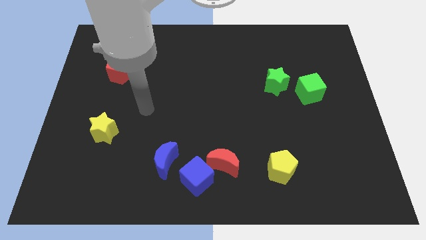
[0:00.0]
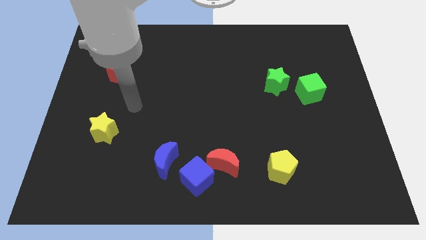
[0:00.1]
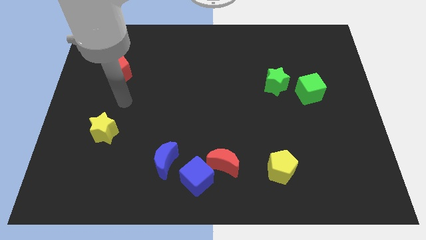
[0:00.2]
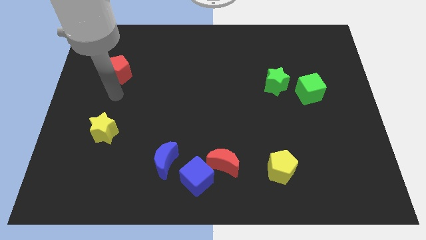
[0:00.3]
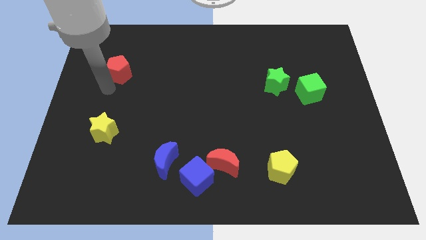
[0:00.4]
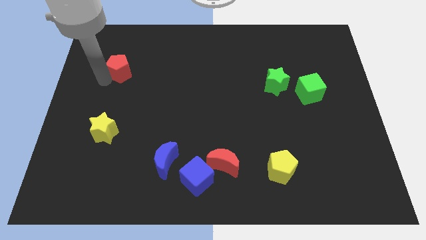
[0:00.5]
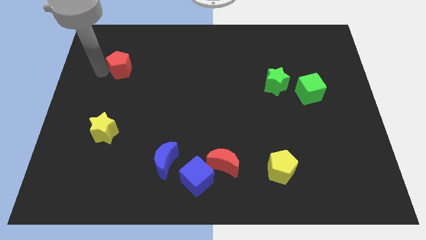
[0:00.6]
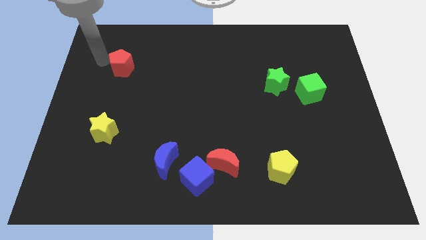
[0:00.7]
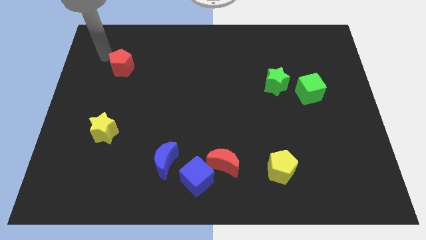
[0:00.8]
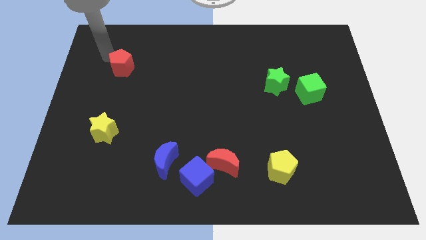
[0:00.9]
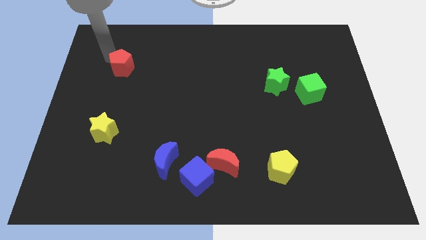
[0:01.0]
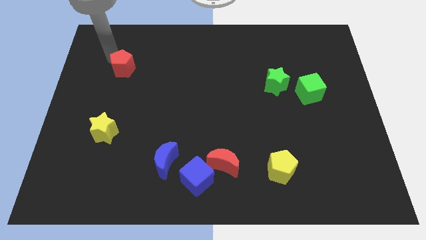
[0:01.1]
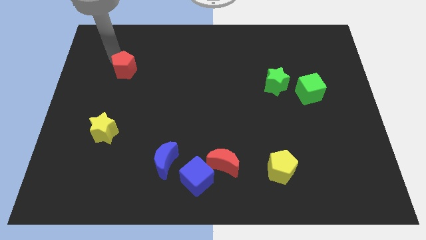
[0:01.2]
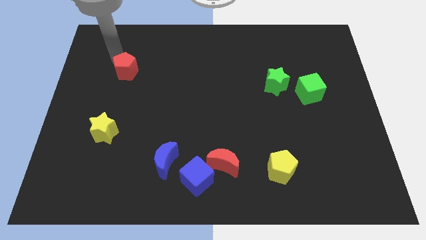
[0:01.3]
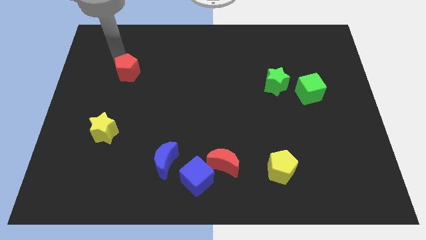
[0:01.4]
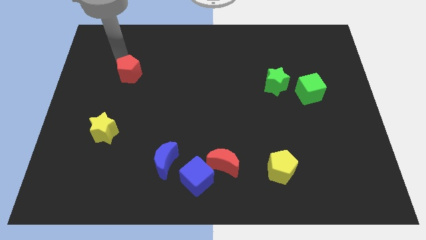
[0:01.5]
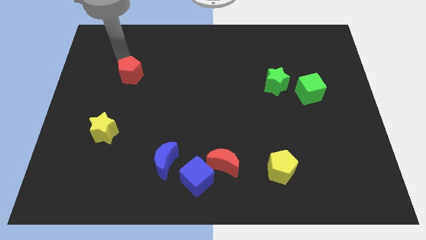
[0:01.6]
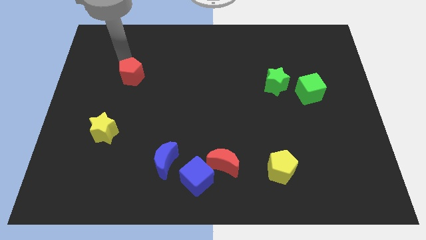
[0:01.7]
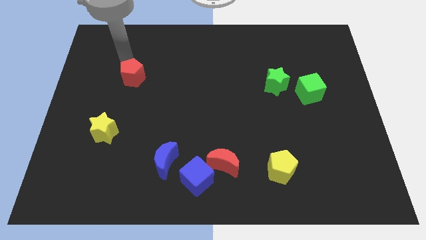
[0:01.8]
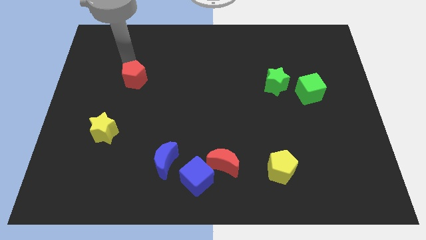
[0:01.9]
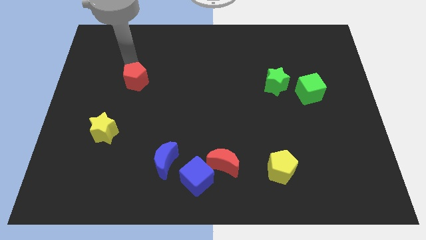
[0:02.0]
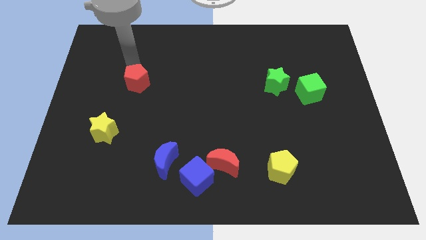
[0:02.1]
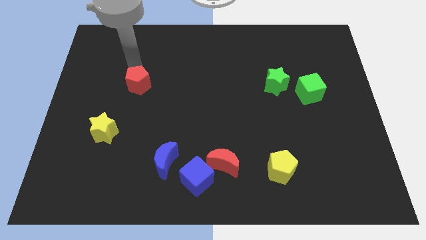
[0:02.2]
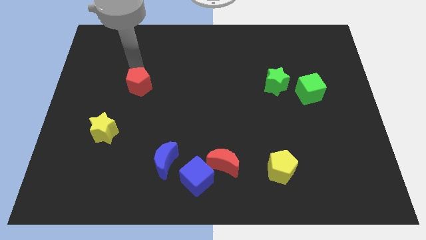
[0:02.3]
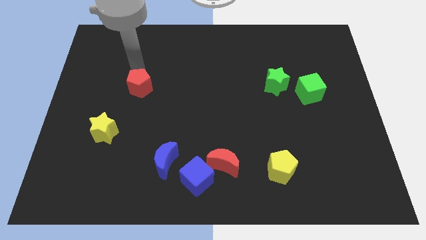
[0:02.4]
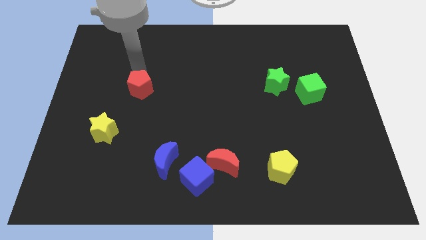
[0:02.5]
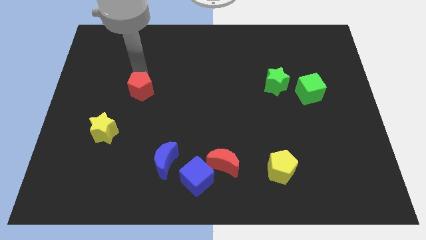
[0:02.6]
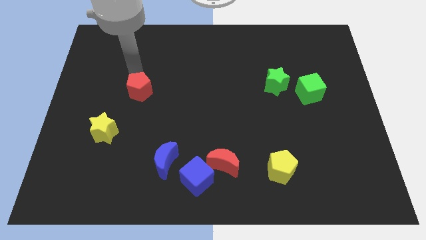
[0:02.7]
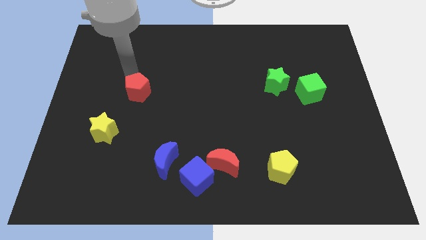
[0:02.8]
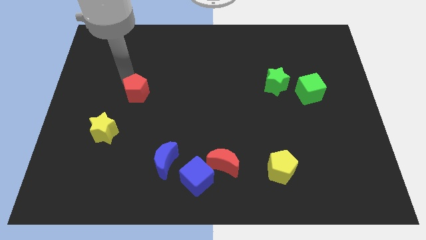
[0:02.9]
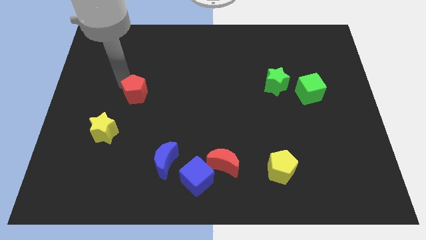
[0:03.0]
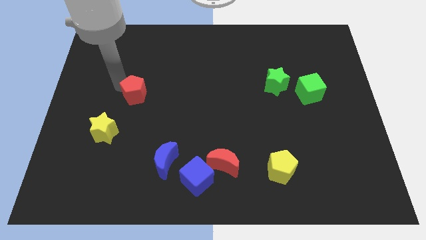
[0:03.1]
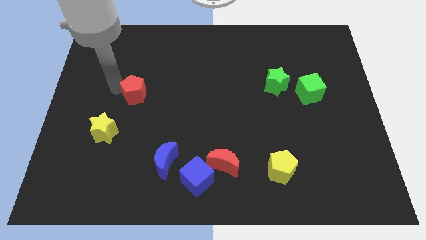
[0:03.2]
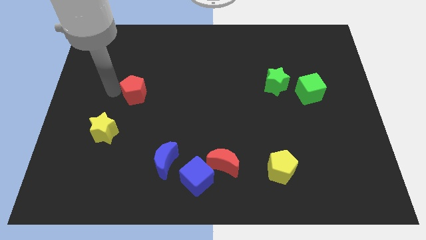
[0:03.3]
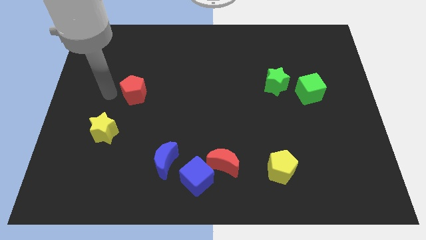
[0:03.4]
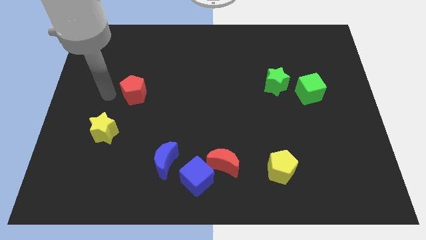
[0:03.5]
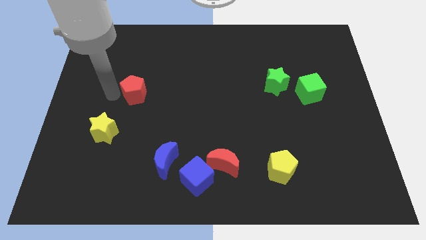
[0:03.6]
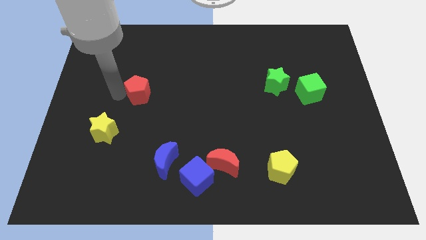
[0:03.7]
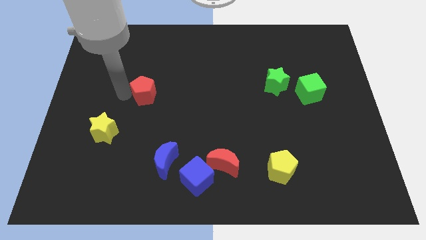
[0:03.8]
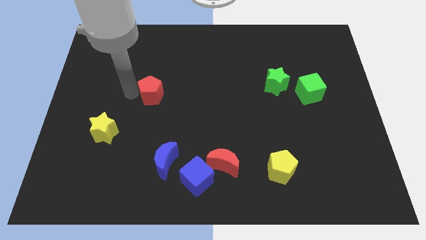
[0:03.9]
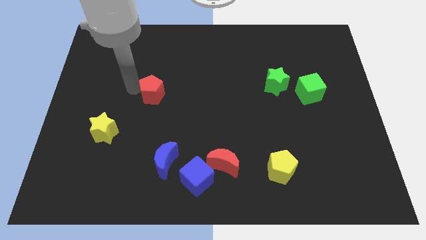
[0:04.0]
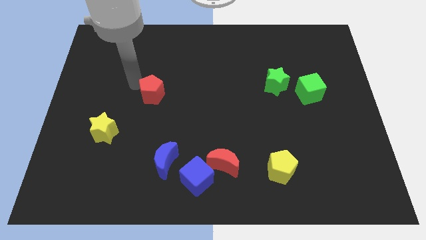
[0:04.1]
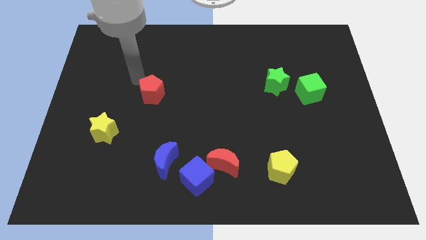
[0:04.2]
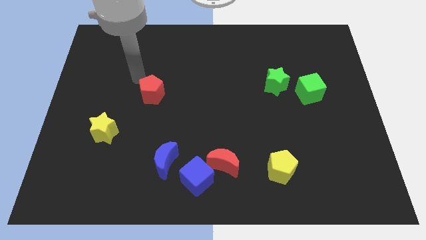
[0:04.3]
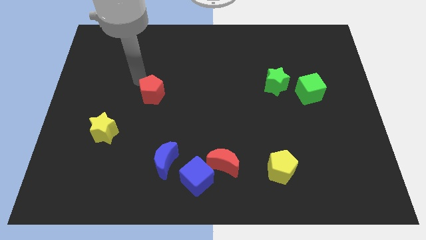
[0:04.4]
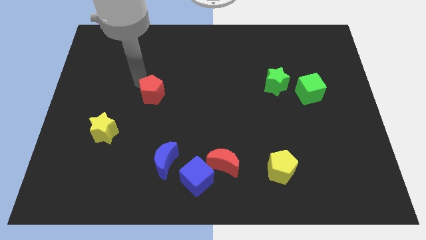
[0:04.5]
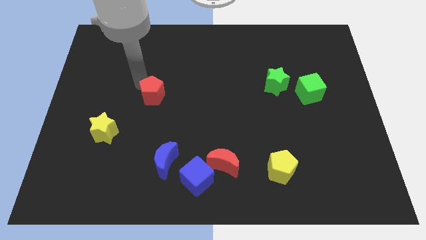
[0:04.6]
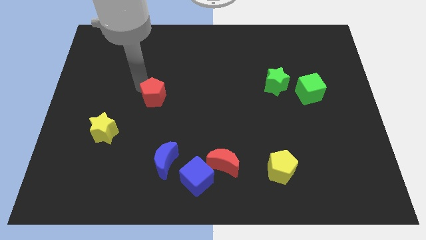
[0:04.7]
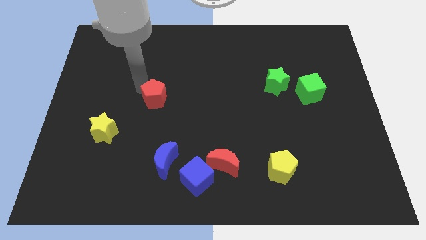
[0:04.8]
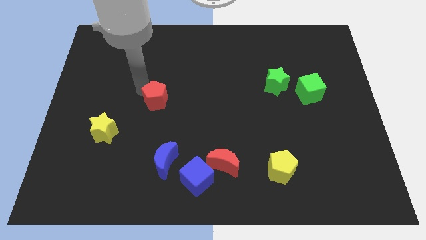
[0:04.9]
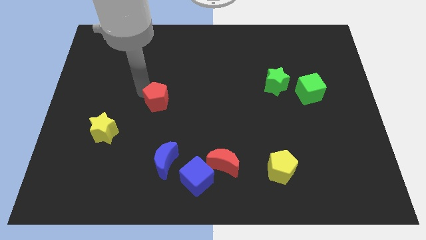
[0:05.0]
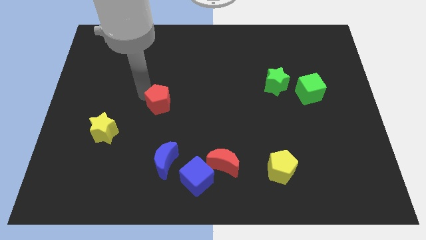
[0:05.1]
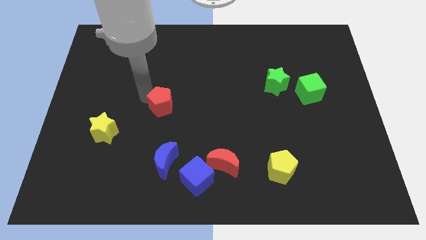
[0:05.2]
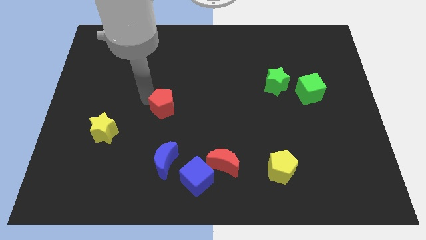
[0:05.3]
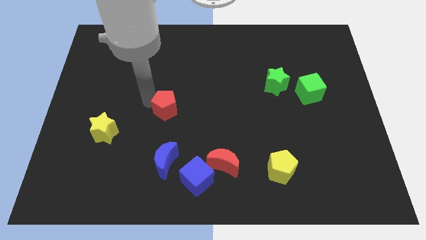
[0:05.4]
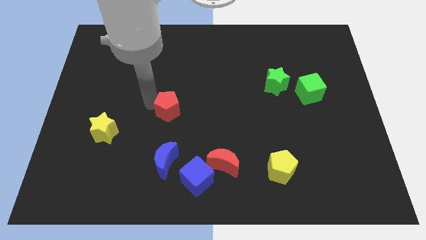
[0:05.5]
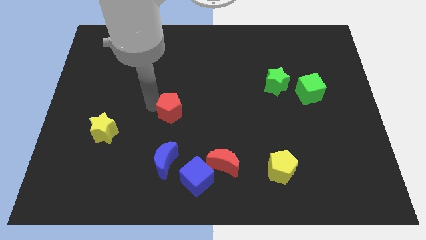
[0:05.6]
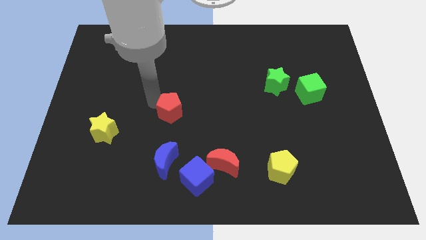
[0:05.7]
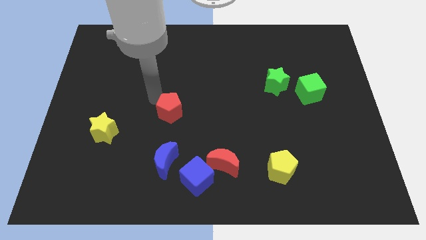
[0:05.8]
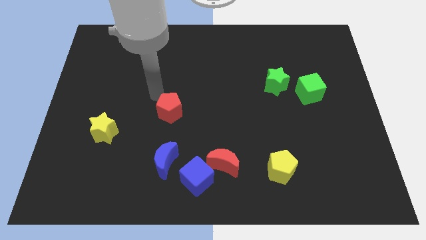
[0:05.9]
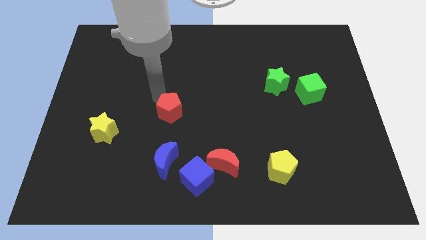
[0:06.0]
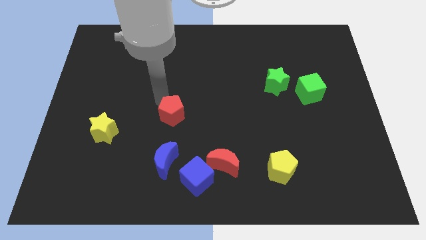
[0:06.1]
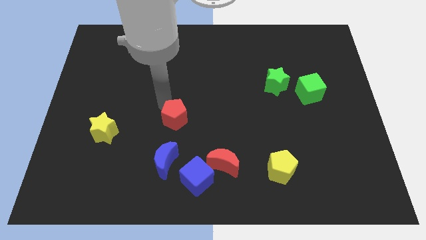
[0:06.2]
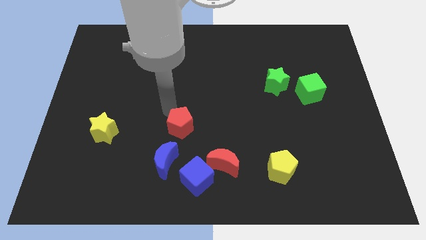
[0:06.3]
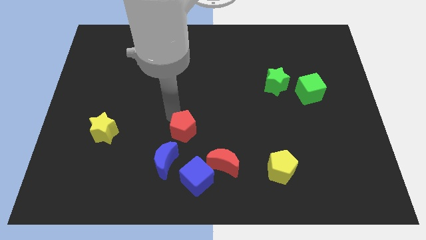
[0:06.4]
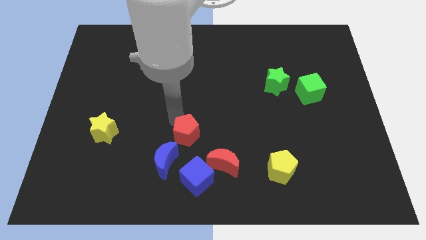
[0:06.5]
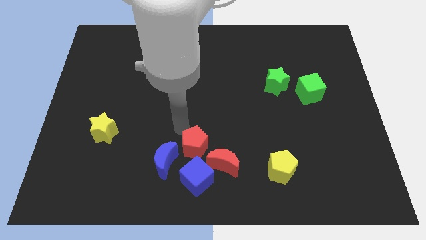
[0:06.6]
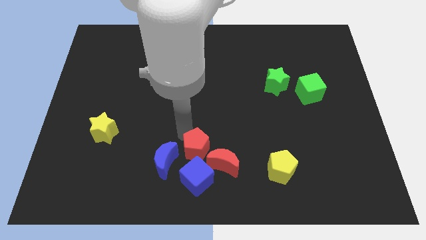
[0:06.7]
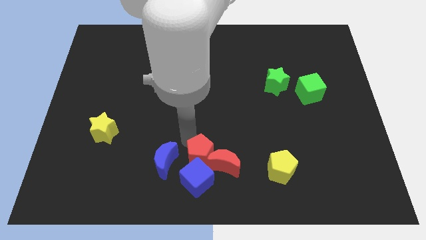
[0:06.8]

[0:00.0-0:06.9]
move the red pentagon to the red moon

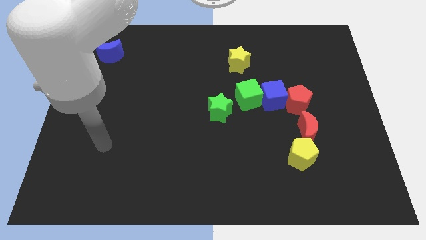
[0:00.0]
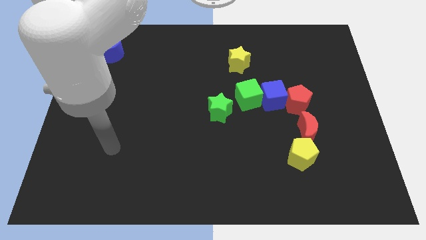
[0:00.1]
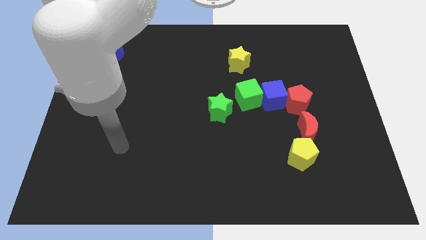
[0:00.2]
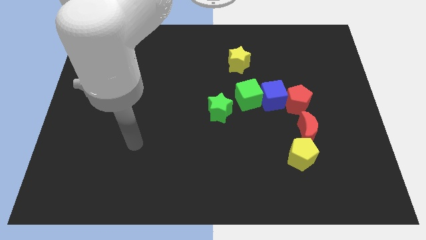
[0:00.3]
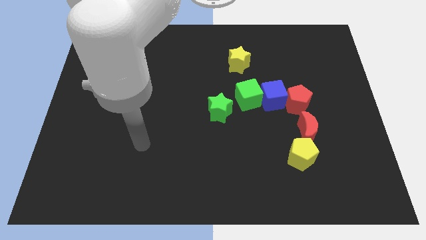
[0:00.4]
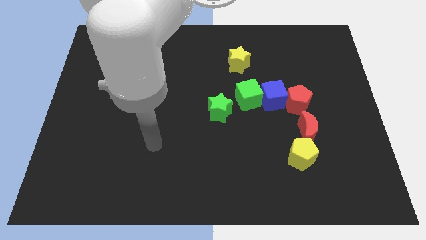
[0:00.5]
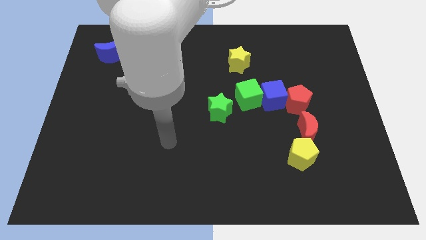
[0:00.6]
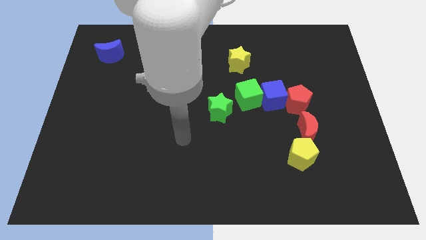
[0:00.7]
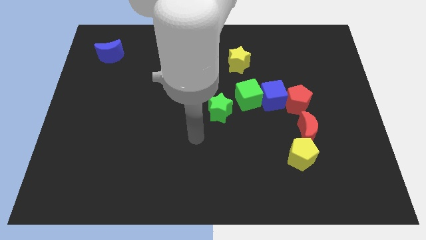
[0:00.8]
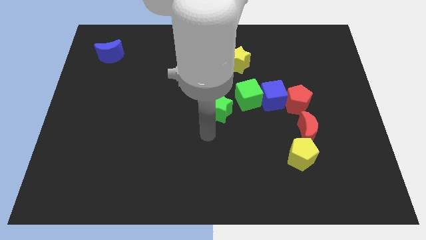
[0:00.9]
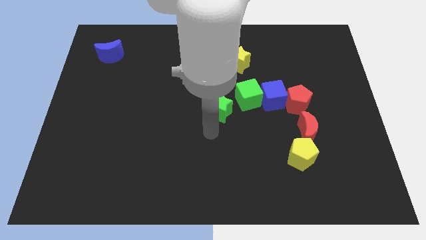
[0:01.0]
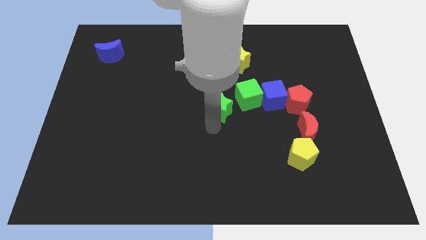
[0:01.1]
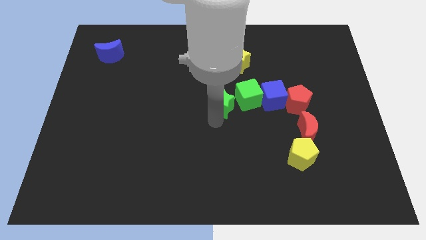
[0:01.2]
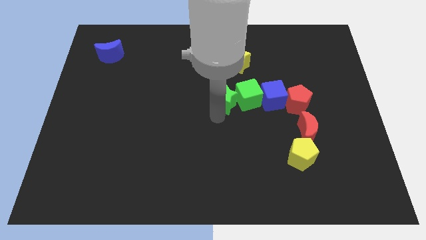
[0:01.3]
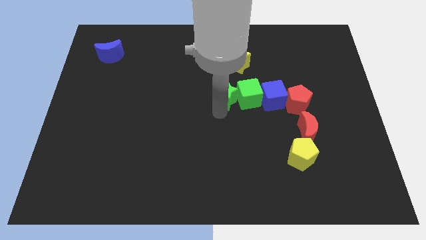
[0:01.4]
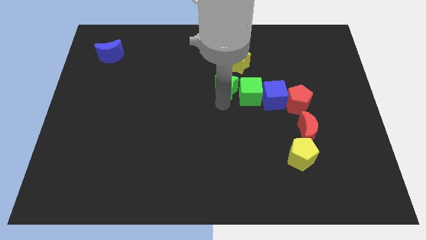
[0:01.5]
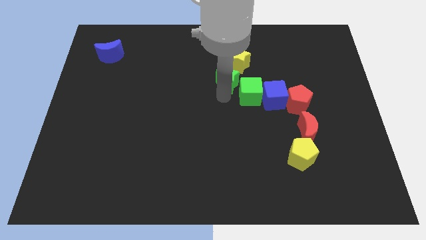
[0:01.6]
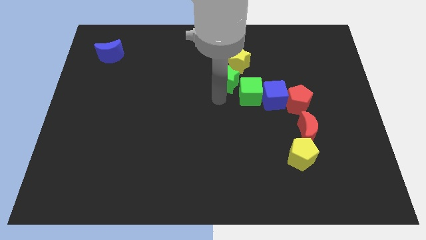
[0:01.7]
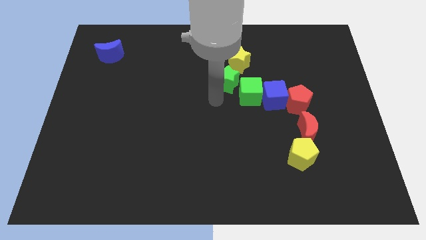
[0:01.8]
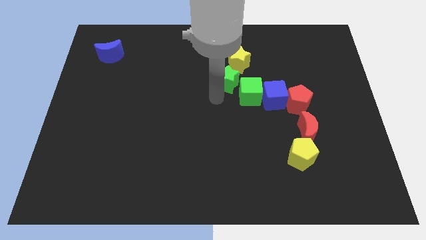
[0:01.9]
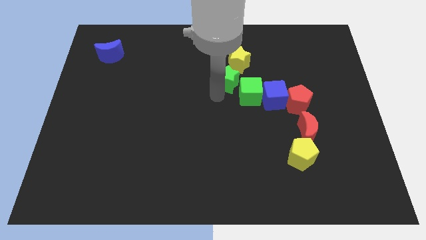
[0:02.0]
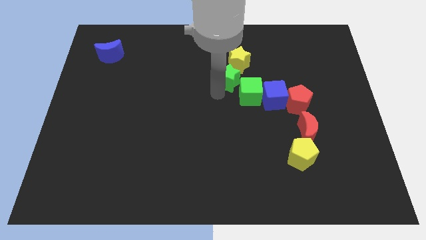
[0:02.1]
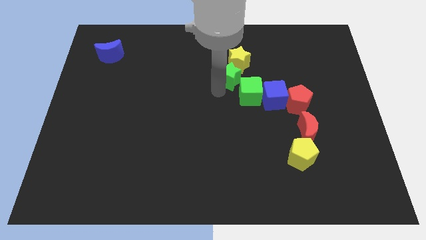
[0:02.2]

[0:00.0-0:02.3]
slide the green star close to the yellow star
